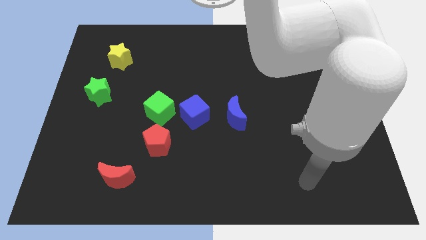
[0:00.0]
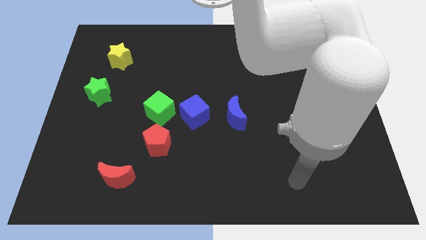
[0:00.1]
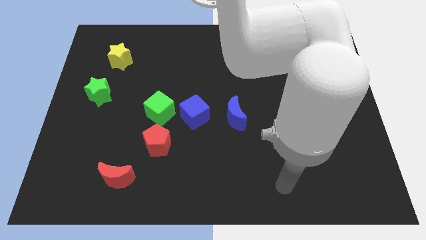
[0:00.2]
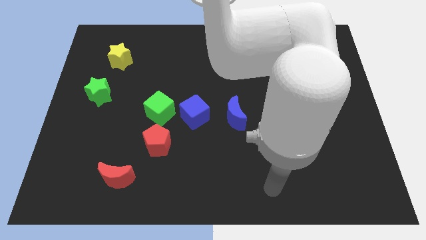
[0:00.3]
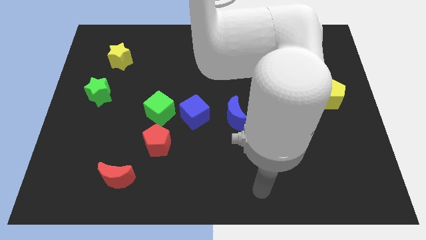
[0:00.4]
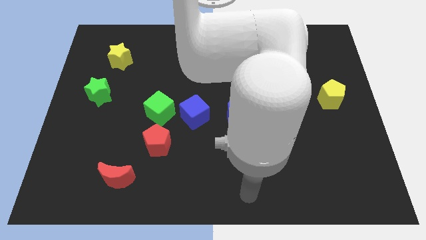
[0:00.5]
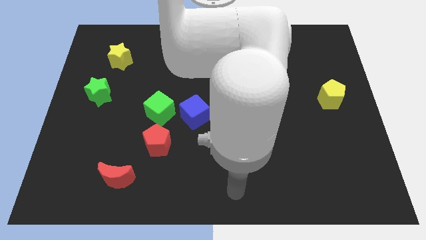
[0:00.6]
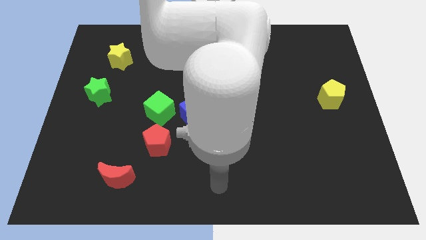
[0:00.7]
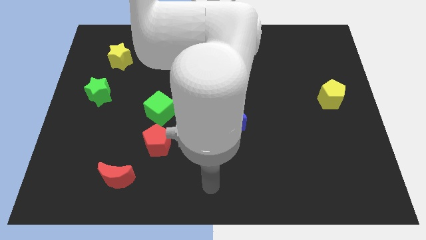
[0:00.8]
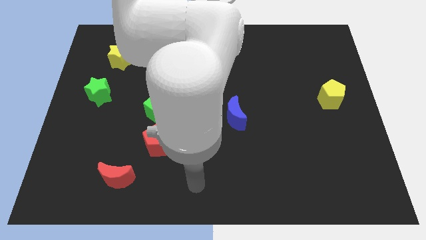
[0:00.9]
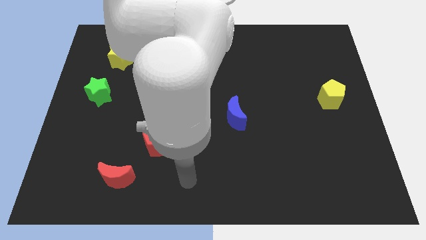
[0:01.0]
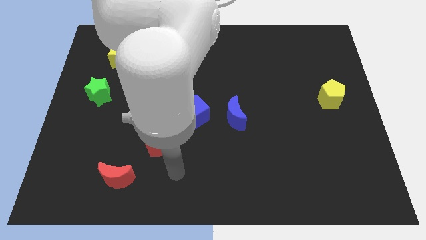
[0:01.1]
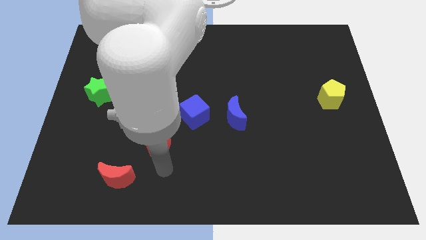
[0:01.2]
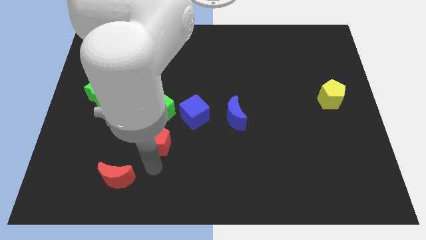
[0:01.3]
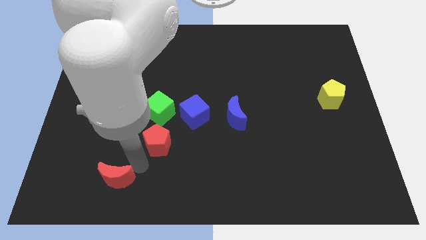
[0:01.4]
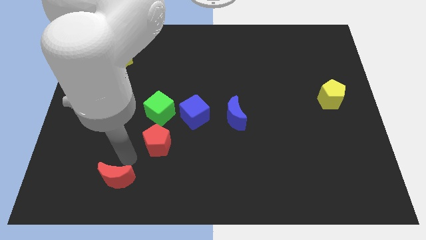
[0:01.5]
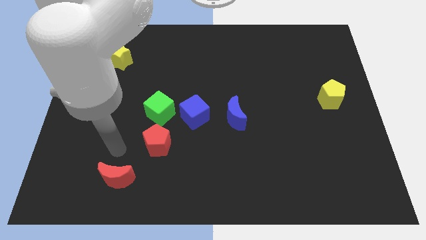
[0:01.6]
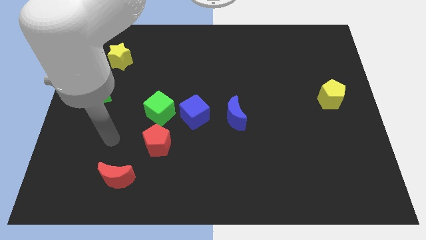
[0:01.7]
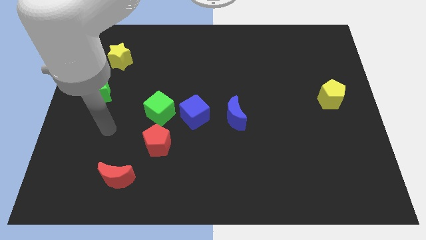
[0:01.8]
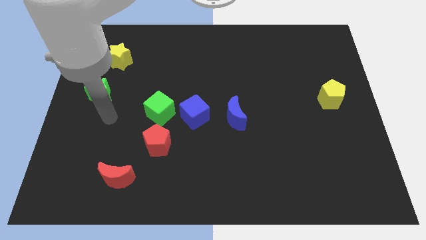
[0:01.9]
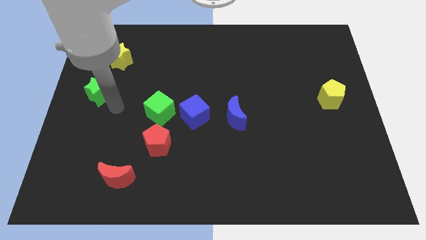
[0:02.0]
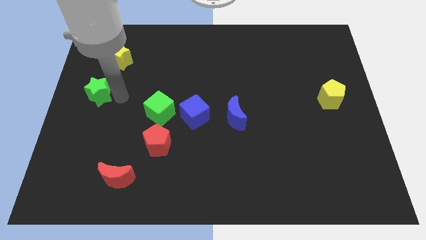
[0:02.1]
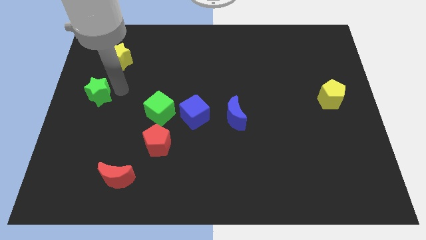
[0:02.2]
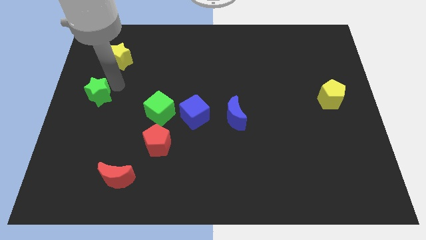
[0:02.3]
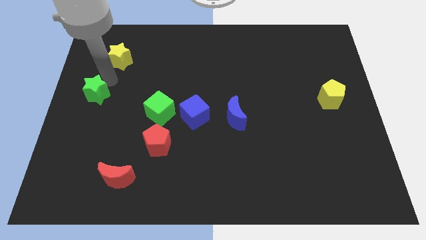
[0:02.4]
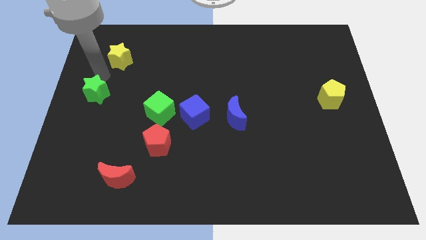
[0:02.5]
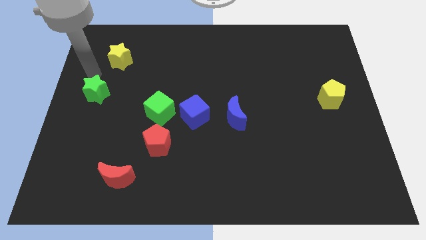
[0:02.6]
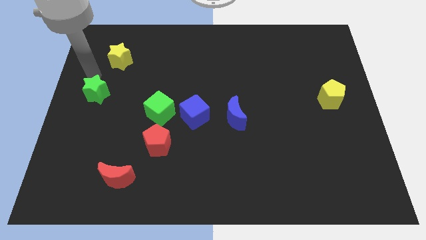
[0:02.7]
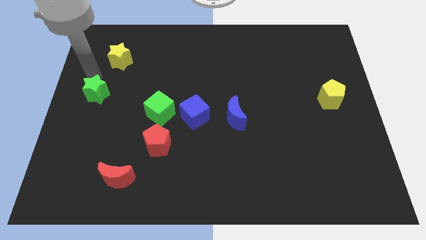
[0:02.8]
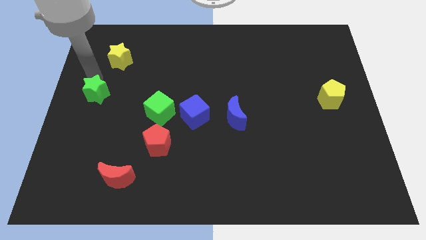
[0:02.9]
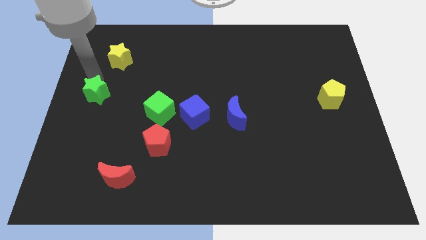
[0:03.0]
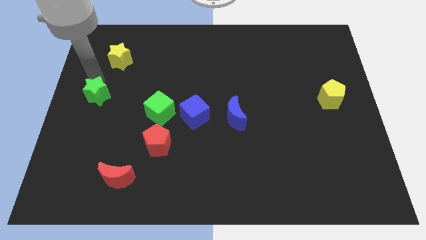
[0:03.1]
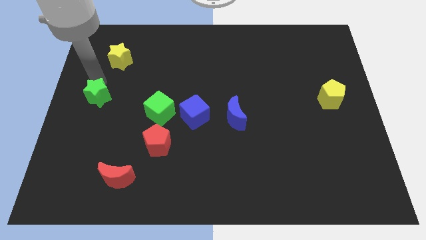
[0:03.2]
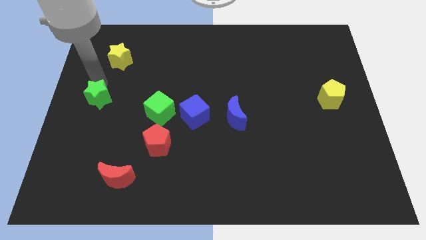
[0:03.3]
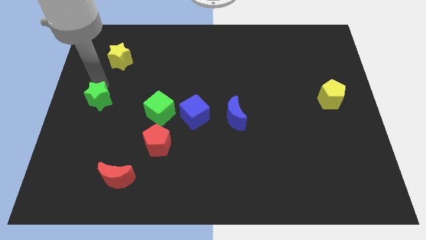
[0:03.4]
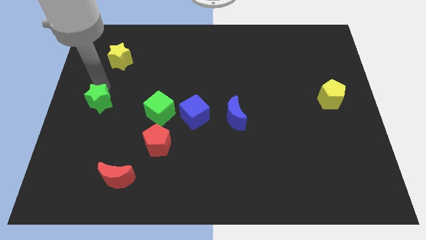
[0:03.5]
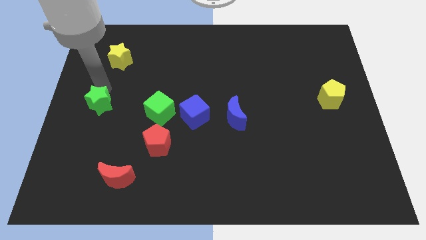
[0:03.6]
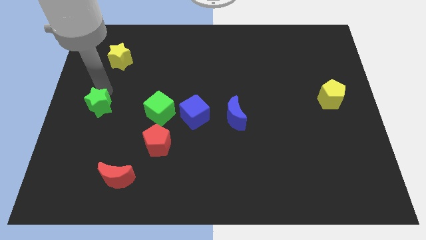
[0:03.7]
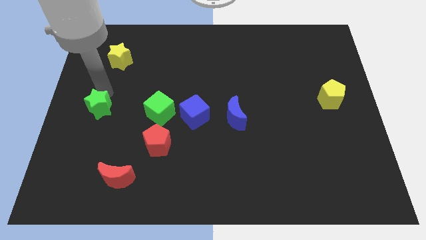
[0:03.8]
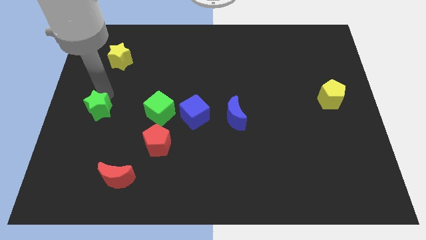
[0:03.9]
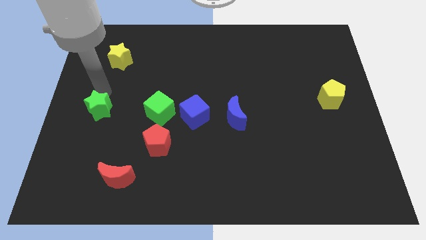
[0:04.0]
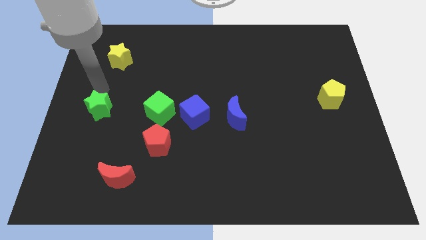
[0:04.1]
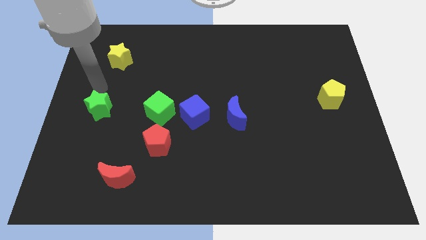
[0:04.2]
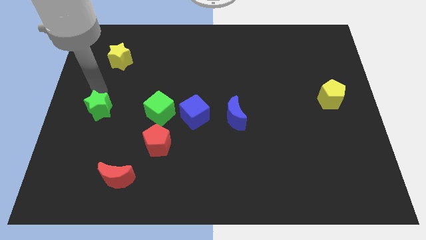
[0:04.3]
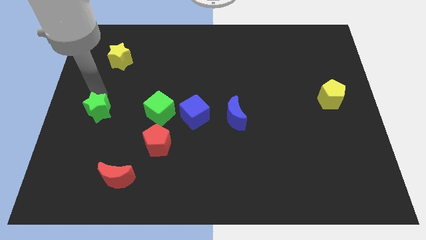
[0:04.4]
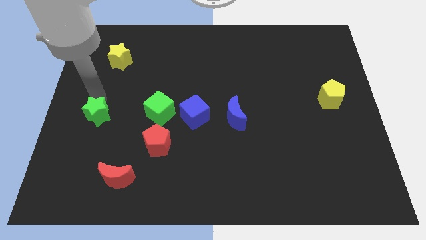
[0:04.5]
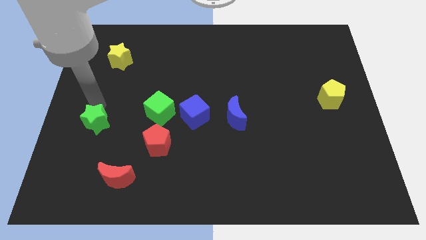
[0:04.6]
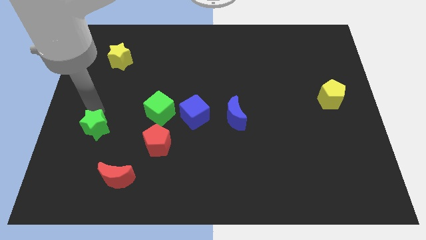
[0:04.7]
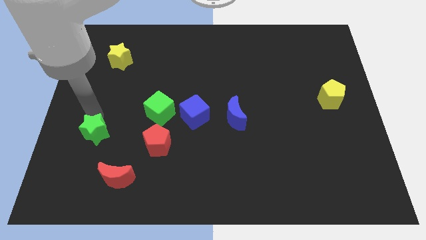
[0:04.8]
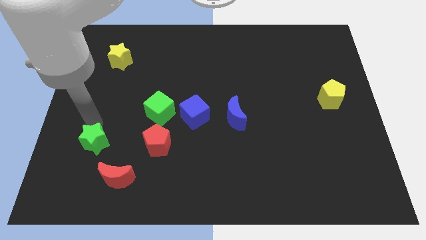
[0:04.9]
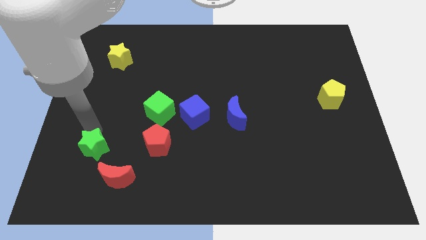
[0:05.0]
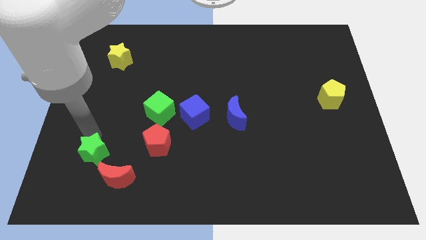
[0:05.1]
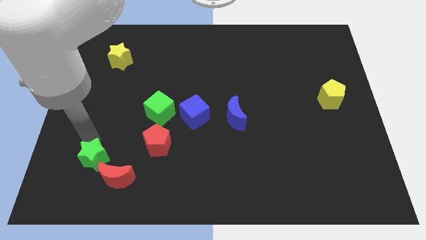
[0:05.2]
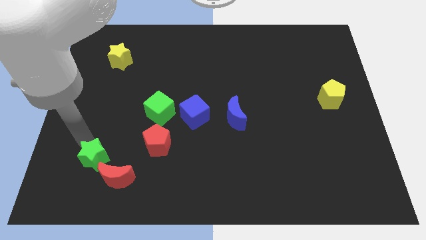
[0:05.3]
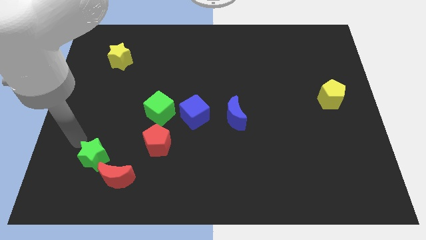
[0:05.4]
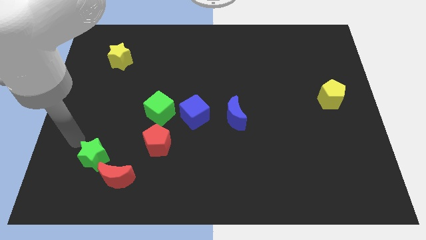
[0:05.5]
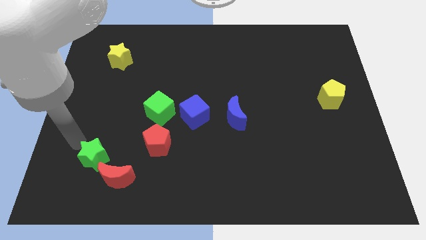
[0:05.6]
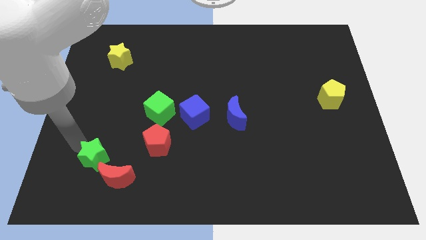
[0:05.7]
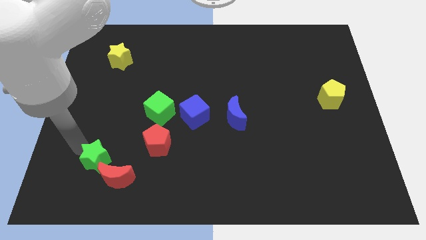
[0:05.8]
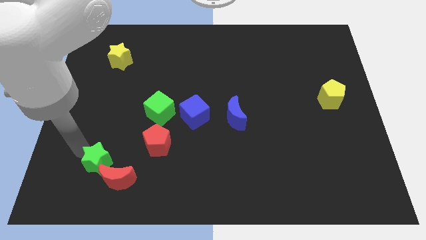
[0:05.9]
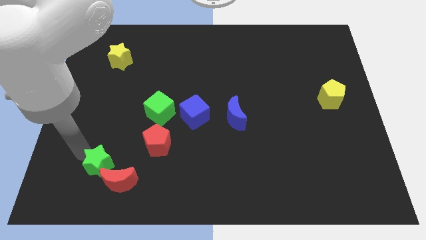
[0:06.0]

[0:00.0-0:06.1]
put the green star next to the red moon

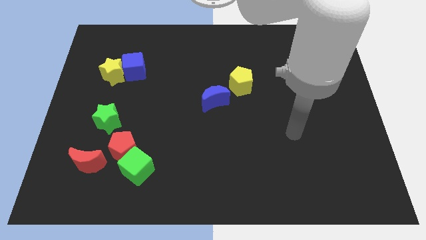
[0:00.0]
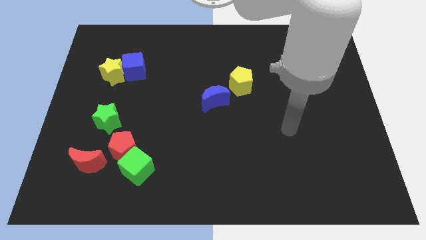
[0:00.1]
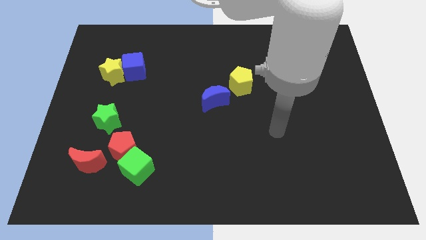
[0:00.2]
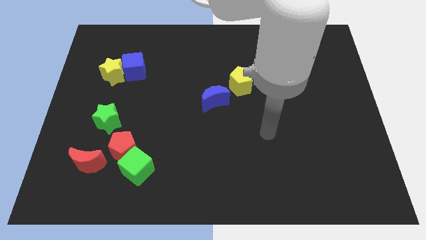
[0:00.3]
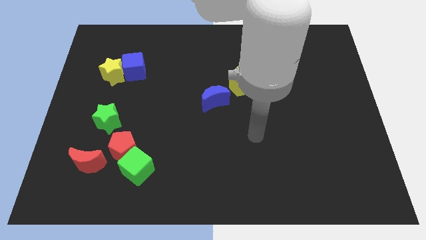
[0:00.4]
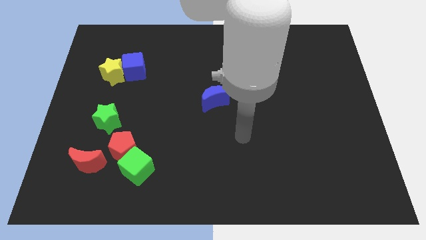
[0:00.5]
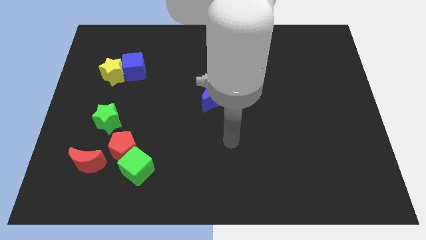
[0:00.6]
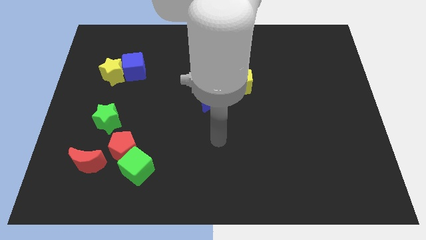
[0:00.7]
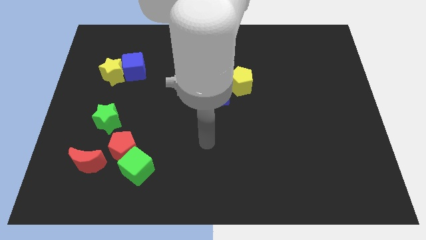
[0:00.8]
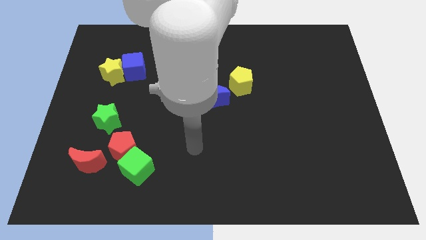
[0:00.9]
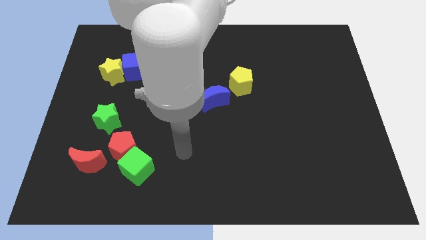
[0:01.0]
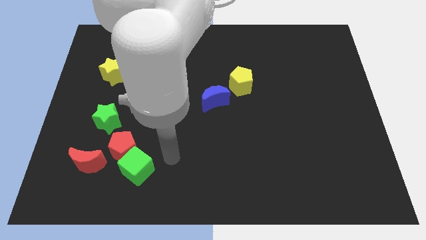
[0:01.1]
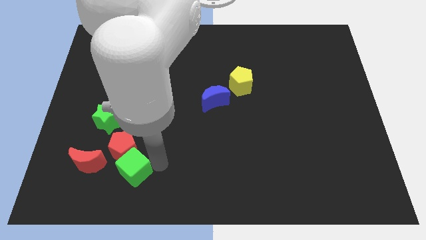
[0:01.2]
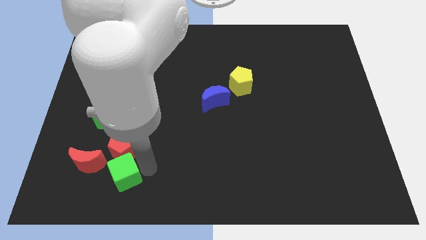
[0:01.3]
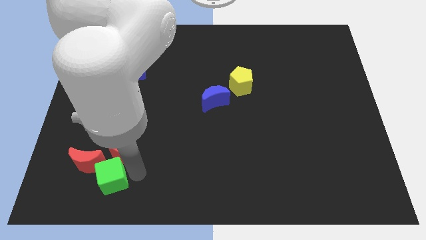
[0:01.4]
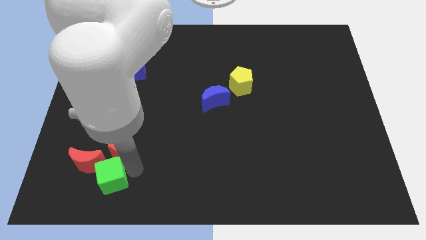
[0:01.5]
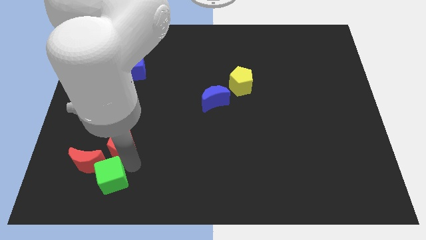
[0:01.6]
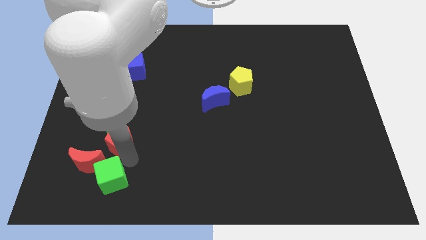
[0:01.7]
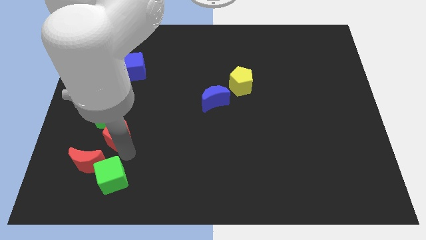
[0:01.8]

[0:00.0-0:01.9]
put the red pentagon next to the green star

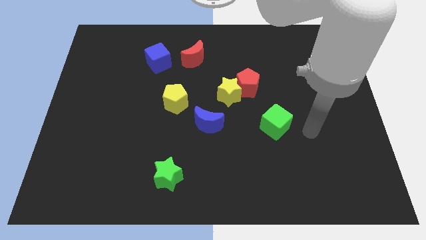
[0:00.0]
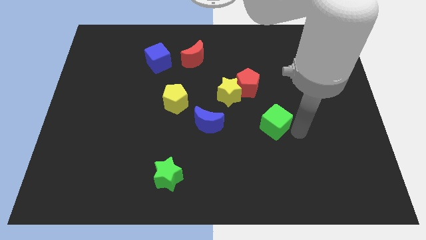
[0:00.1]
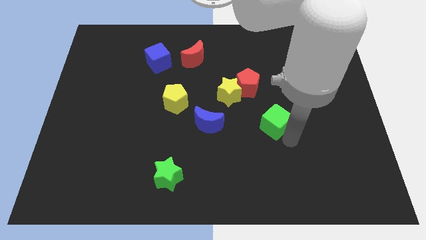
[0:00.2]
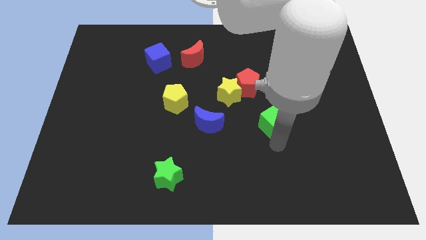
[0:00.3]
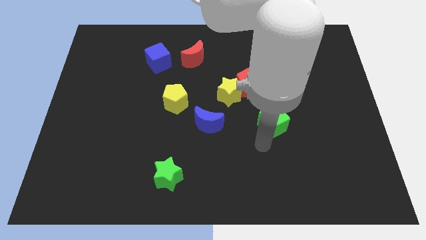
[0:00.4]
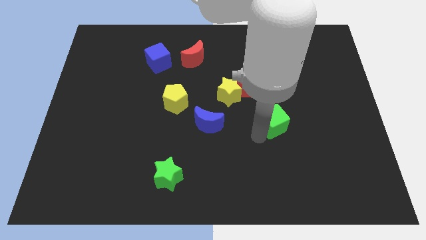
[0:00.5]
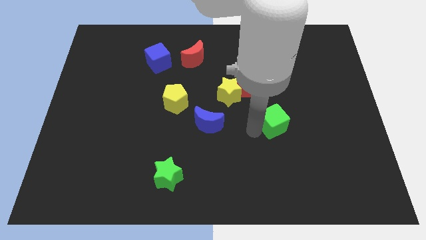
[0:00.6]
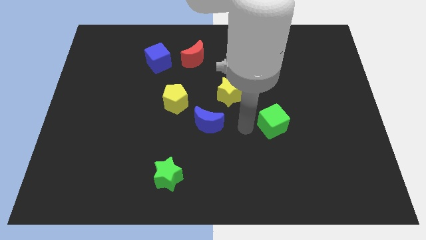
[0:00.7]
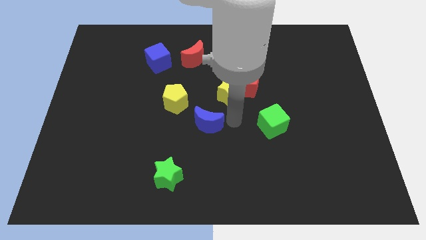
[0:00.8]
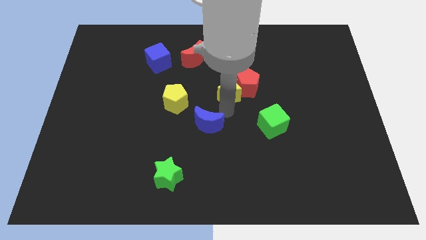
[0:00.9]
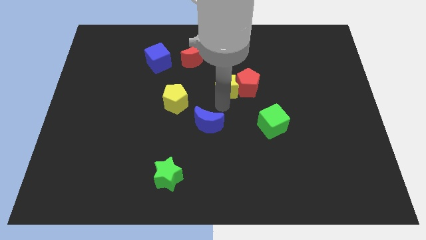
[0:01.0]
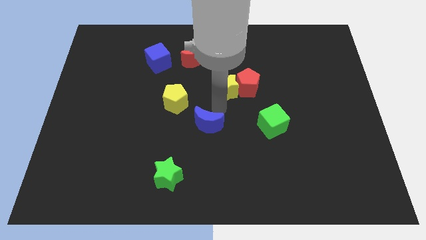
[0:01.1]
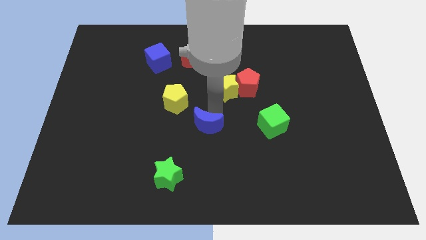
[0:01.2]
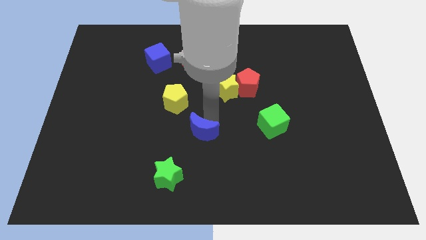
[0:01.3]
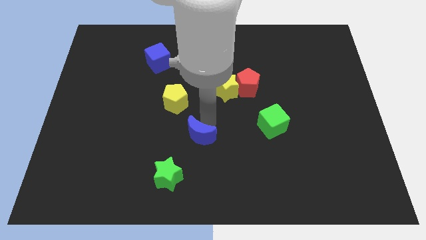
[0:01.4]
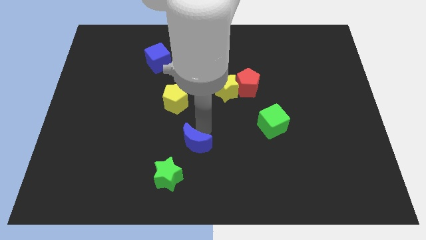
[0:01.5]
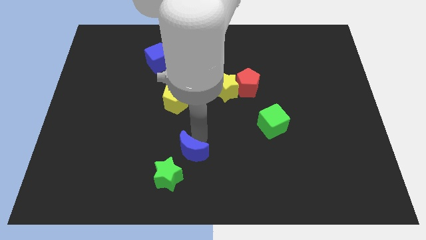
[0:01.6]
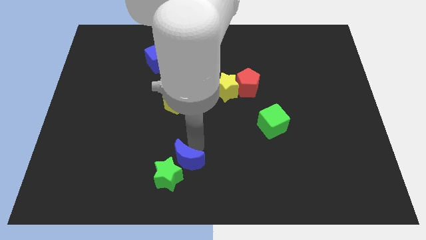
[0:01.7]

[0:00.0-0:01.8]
push the blue moon next to the green star
